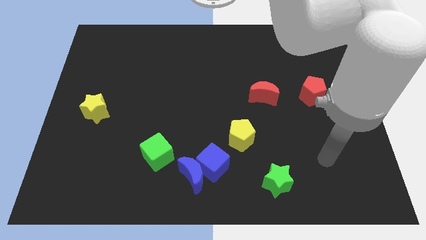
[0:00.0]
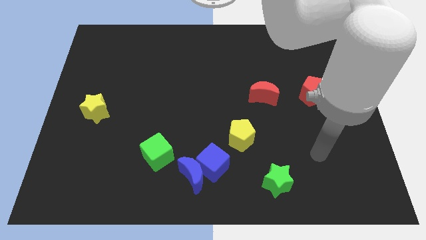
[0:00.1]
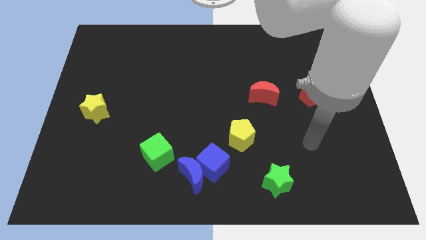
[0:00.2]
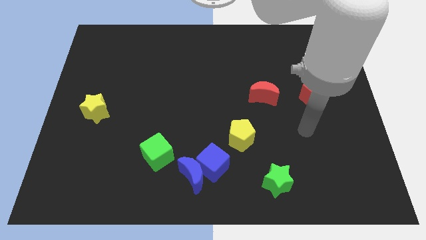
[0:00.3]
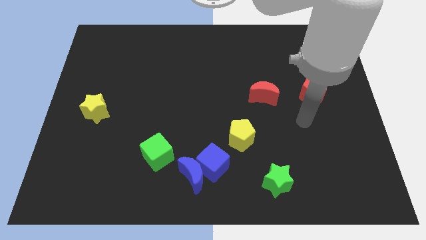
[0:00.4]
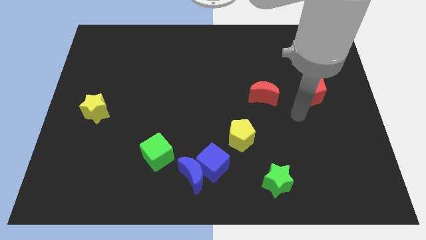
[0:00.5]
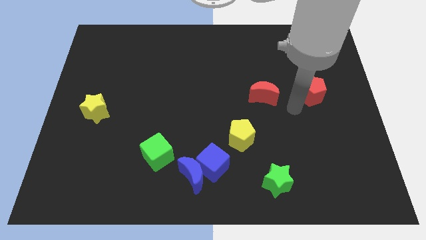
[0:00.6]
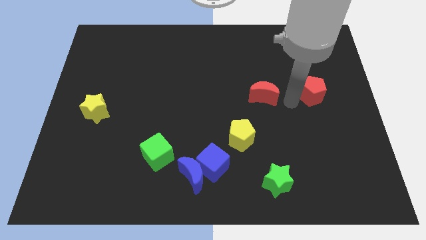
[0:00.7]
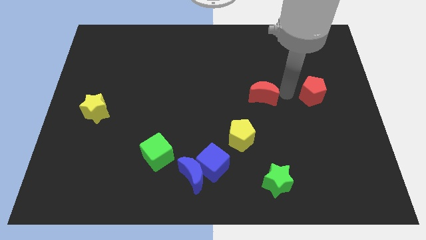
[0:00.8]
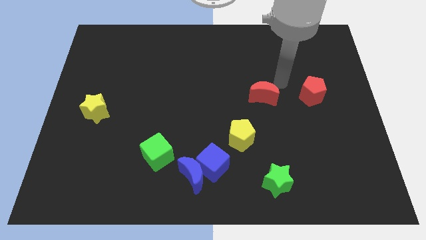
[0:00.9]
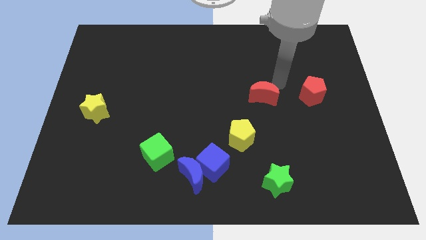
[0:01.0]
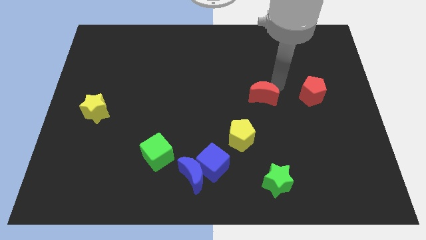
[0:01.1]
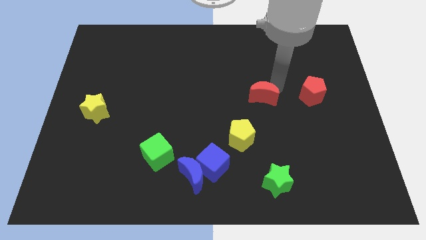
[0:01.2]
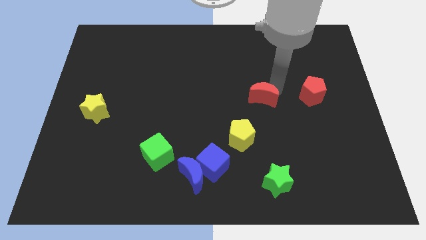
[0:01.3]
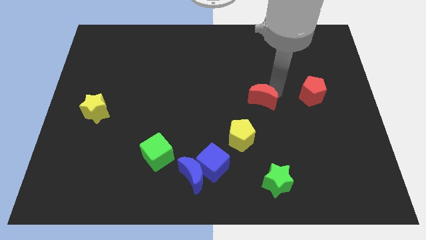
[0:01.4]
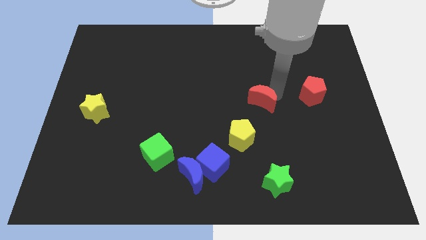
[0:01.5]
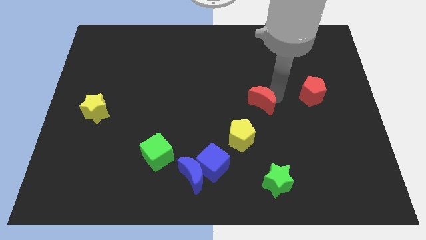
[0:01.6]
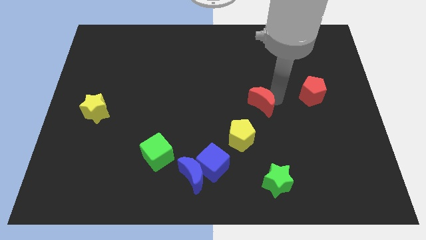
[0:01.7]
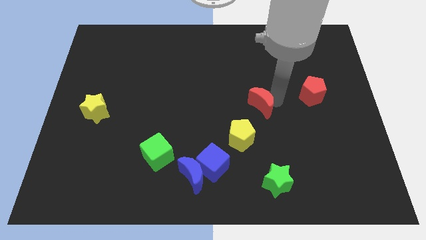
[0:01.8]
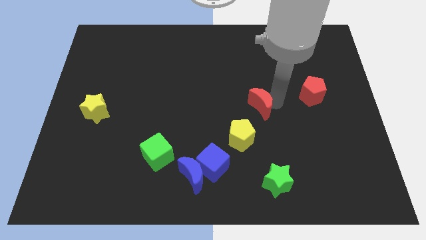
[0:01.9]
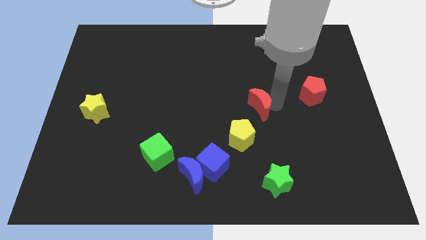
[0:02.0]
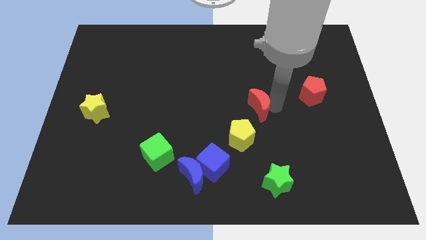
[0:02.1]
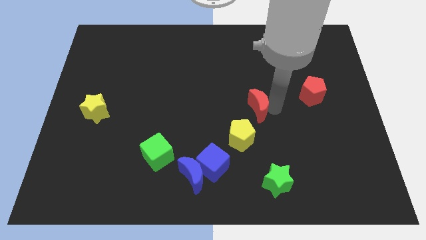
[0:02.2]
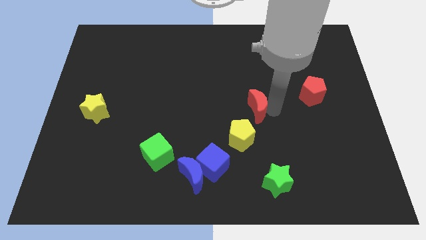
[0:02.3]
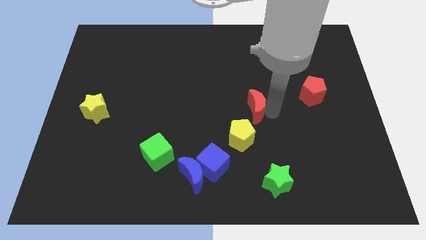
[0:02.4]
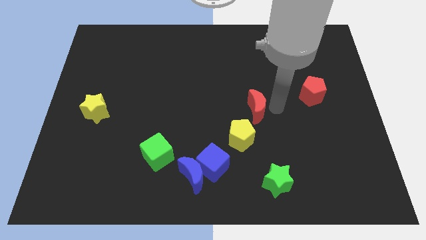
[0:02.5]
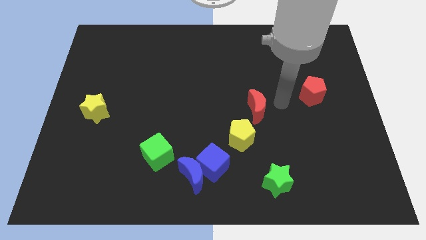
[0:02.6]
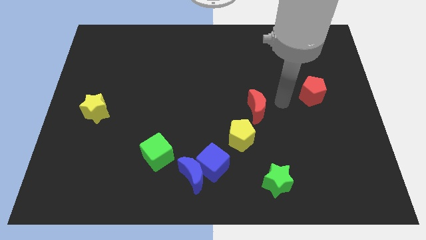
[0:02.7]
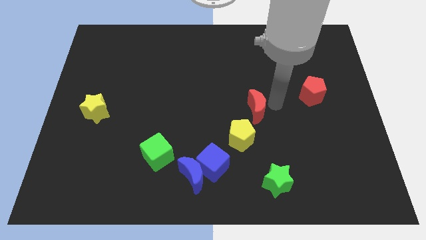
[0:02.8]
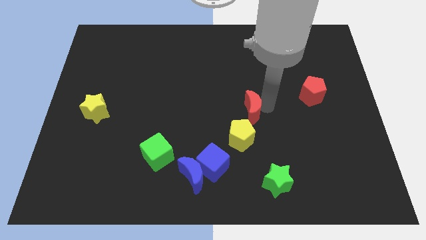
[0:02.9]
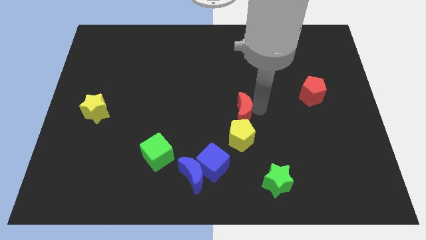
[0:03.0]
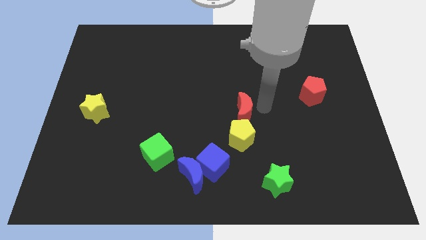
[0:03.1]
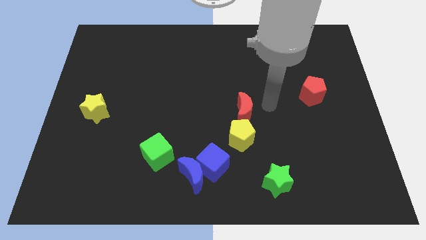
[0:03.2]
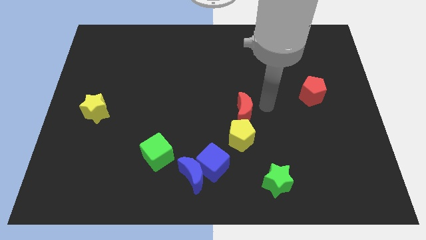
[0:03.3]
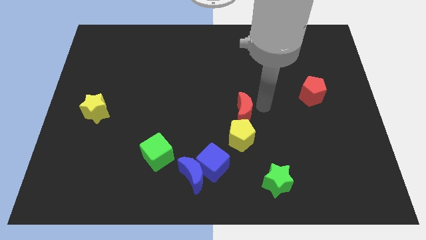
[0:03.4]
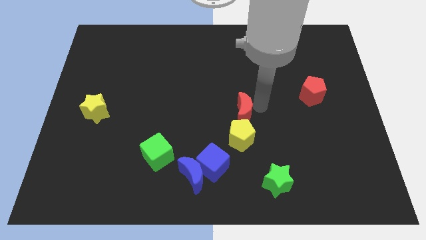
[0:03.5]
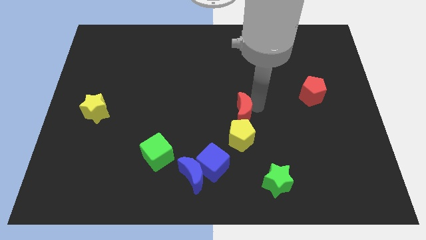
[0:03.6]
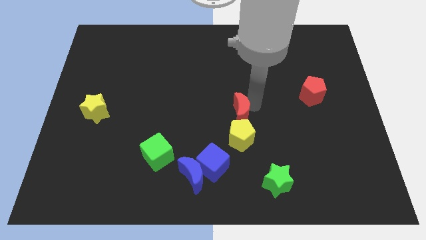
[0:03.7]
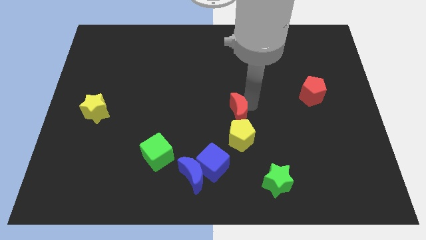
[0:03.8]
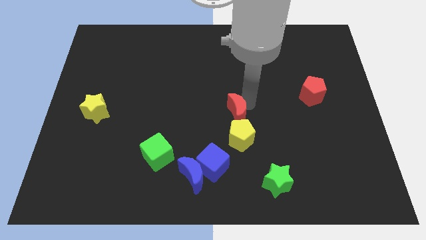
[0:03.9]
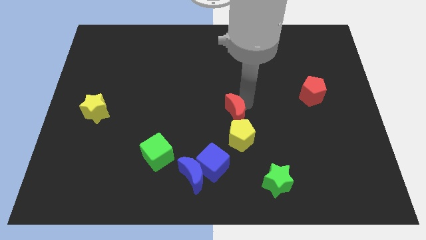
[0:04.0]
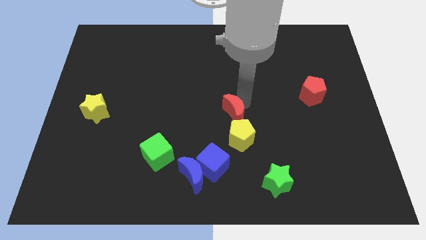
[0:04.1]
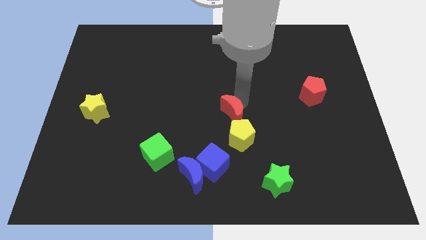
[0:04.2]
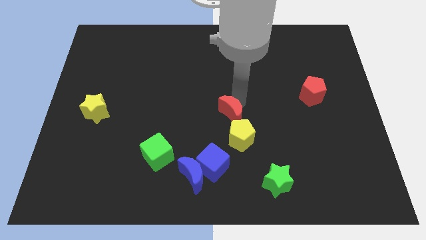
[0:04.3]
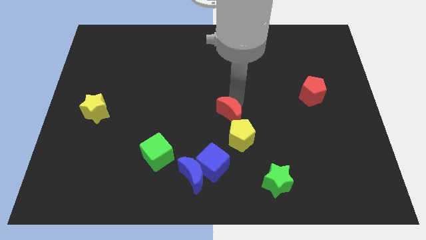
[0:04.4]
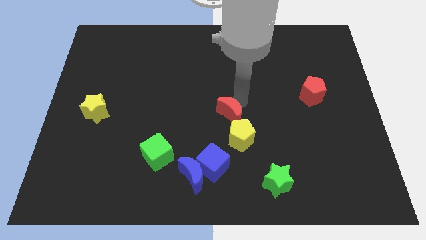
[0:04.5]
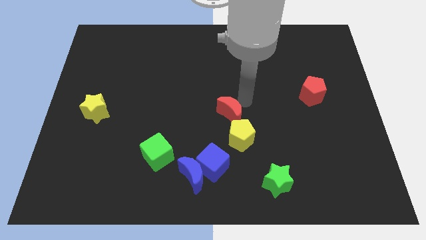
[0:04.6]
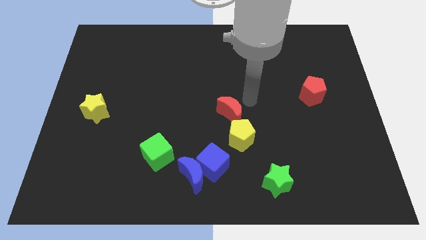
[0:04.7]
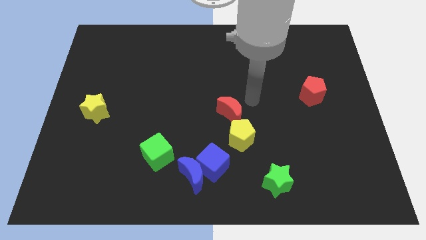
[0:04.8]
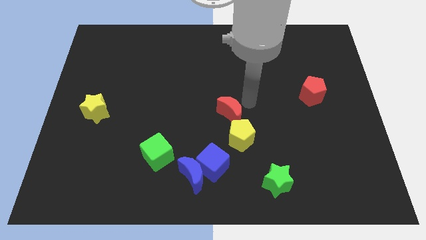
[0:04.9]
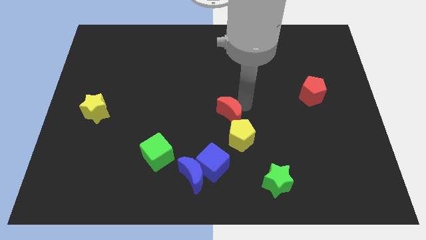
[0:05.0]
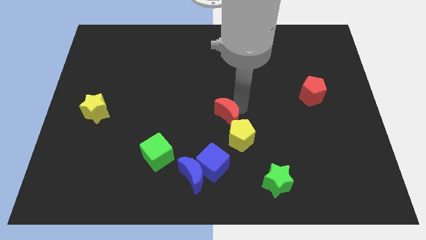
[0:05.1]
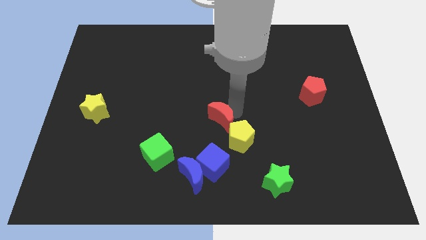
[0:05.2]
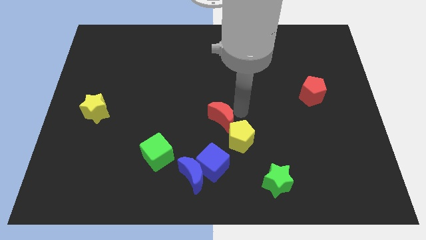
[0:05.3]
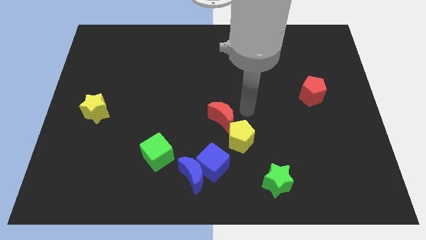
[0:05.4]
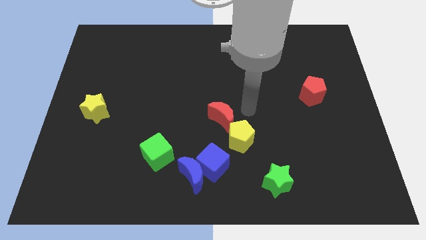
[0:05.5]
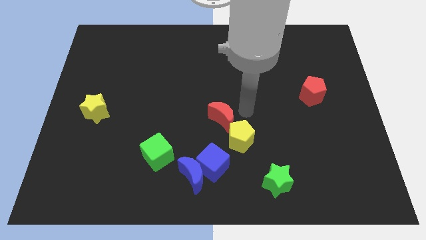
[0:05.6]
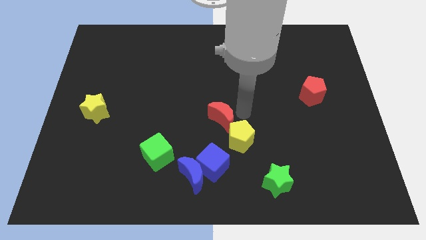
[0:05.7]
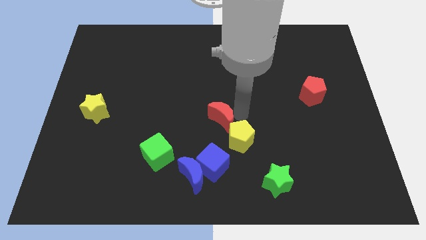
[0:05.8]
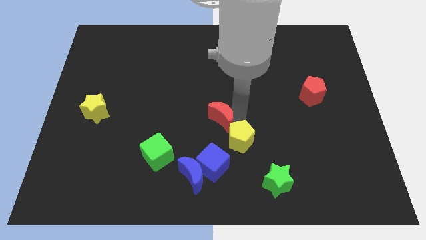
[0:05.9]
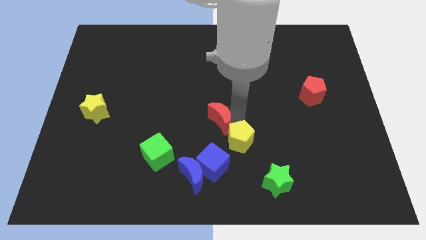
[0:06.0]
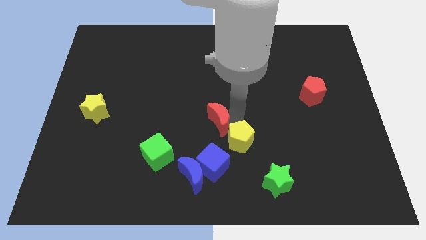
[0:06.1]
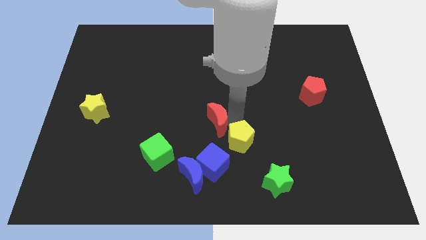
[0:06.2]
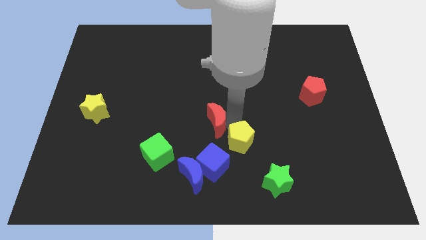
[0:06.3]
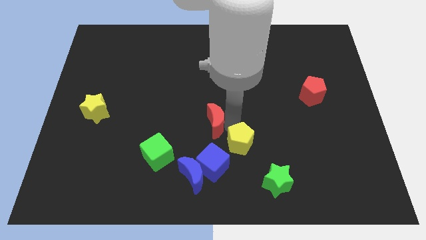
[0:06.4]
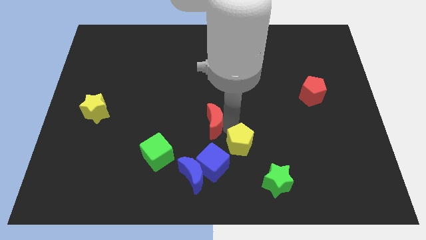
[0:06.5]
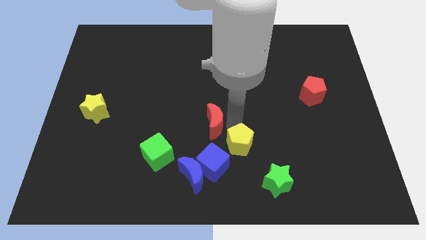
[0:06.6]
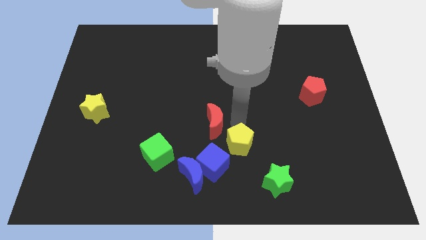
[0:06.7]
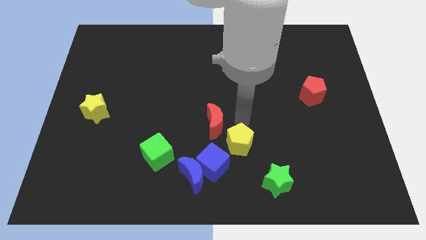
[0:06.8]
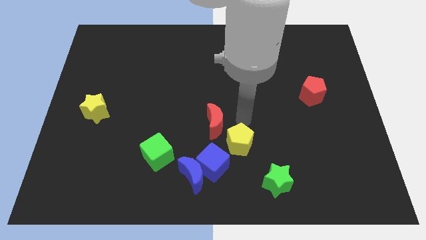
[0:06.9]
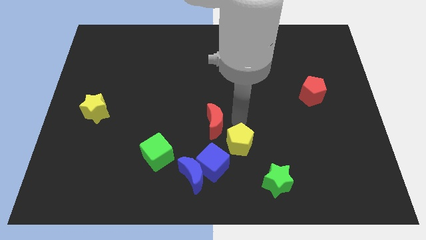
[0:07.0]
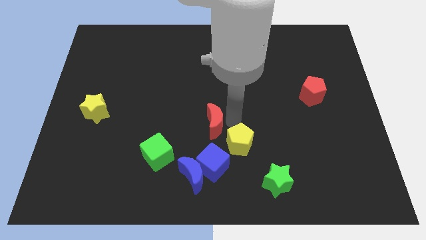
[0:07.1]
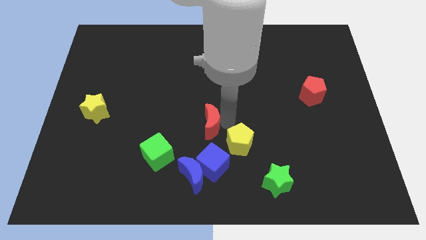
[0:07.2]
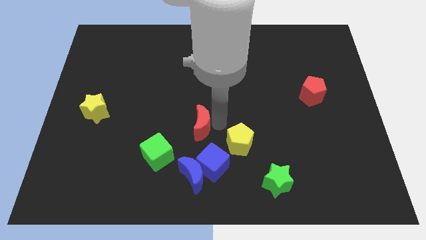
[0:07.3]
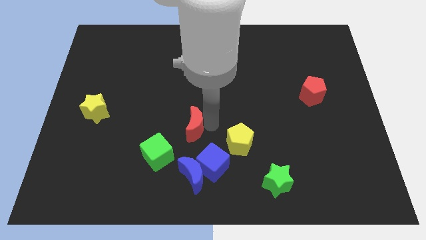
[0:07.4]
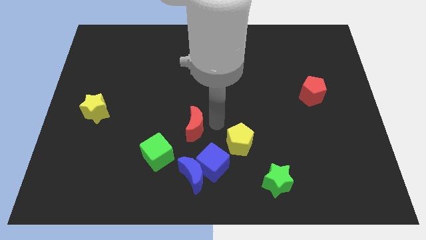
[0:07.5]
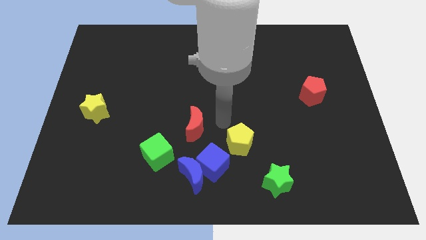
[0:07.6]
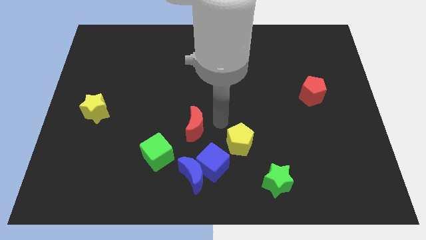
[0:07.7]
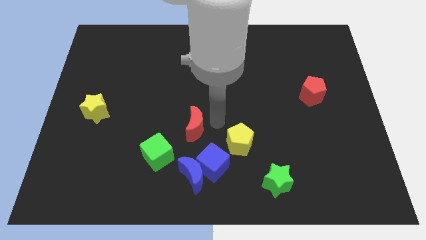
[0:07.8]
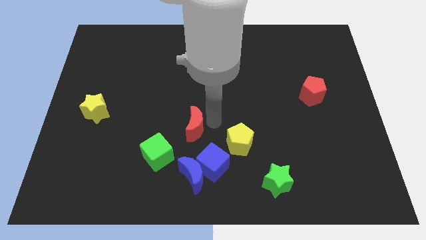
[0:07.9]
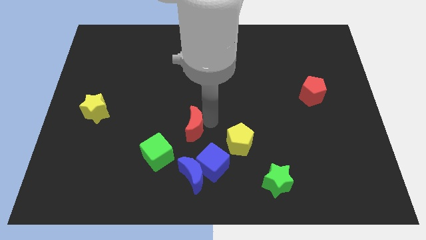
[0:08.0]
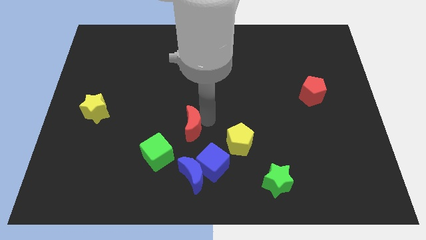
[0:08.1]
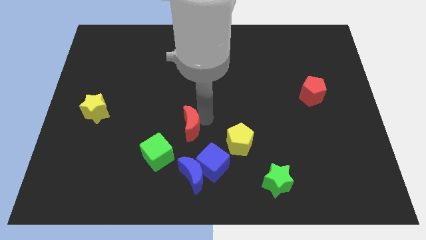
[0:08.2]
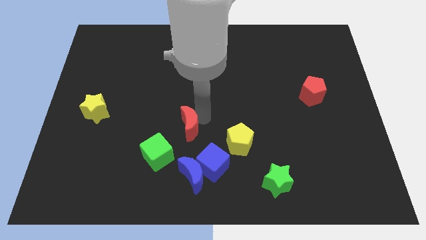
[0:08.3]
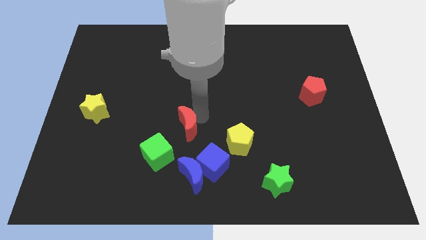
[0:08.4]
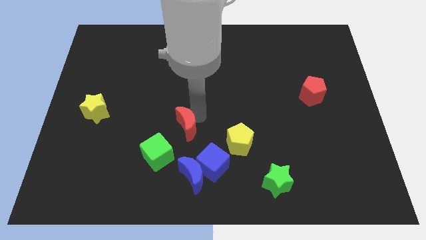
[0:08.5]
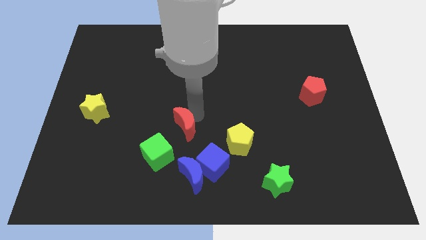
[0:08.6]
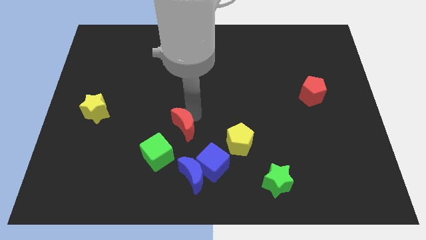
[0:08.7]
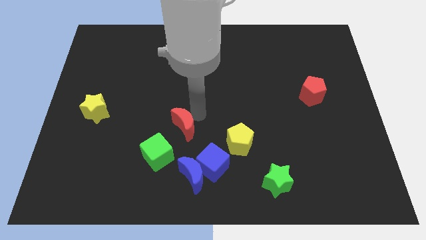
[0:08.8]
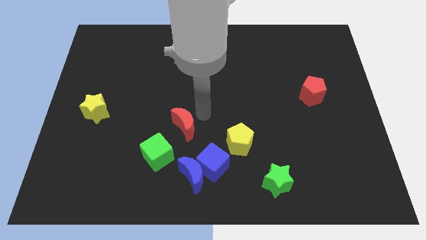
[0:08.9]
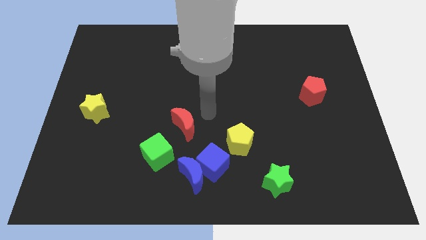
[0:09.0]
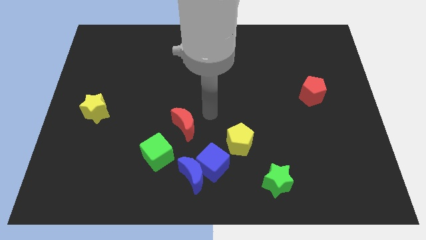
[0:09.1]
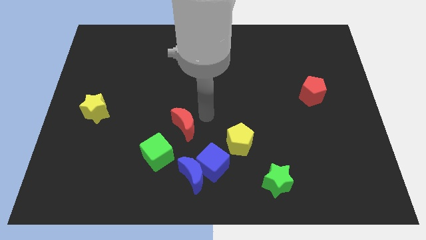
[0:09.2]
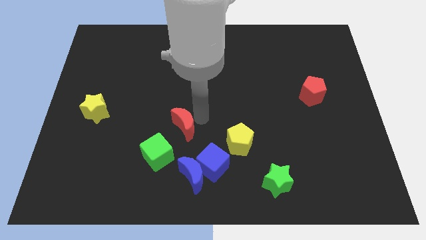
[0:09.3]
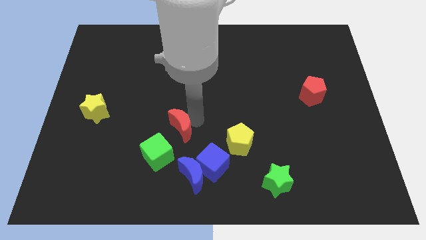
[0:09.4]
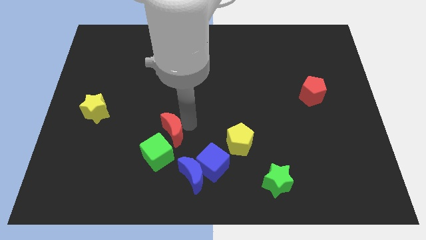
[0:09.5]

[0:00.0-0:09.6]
move the red moon downwards and left diagonally
